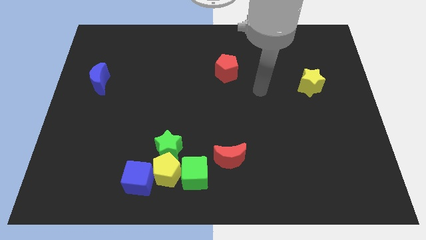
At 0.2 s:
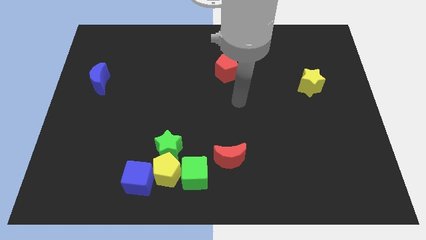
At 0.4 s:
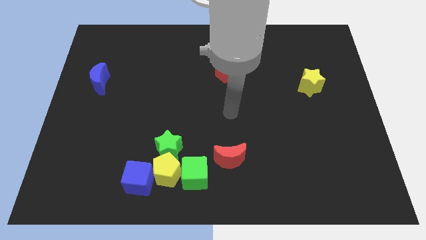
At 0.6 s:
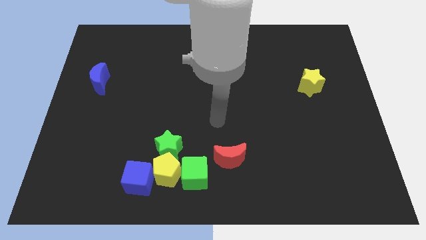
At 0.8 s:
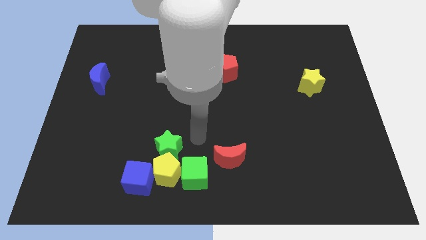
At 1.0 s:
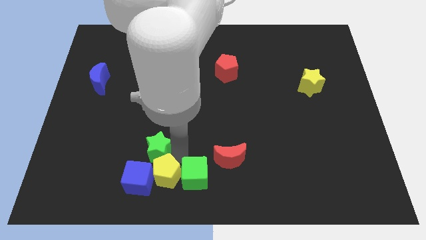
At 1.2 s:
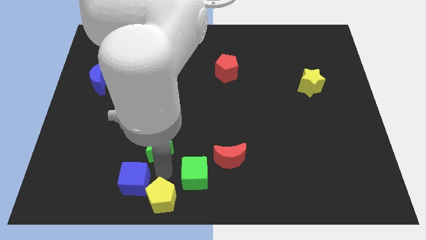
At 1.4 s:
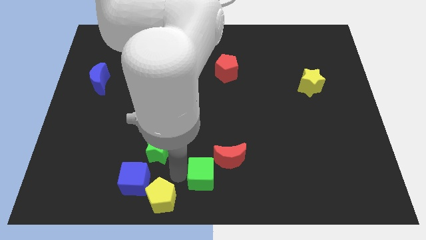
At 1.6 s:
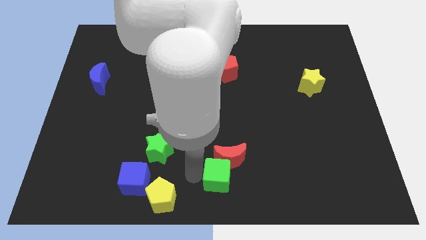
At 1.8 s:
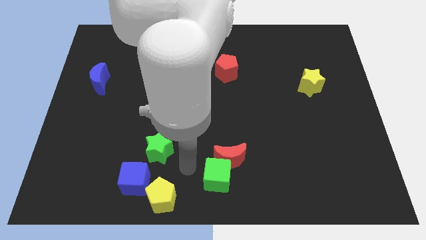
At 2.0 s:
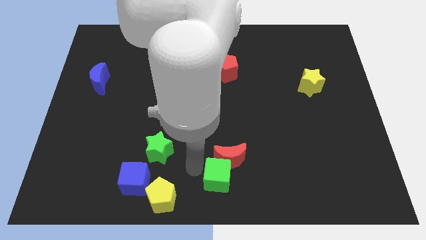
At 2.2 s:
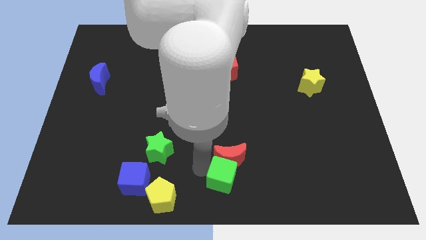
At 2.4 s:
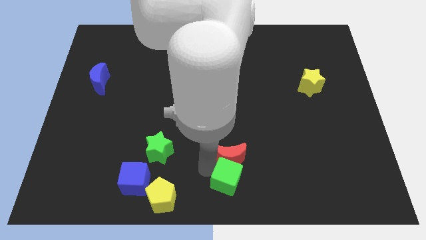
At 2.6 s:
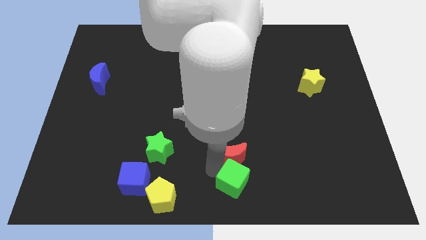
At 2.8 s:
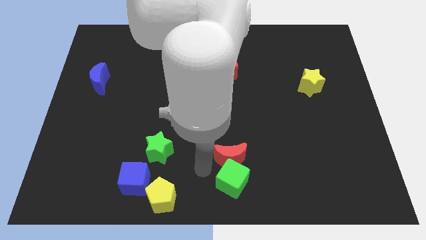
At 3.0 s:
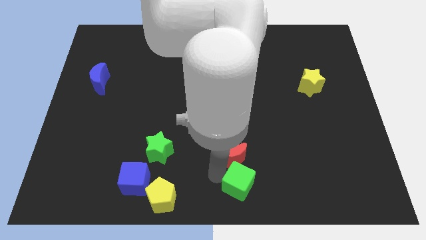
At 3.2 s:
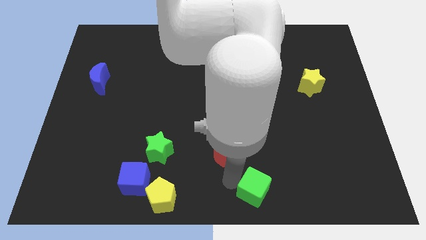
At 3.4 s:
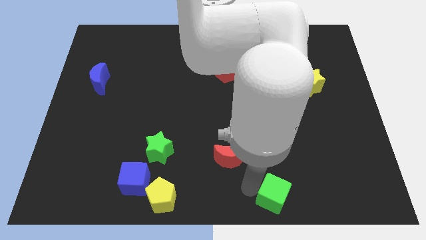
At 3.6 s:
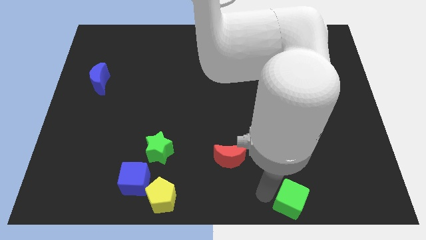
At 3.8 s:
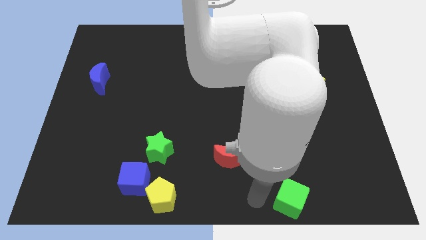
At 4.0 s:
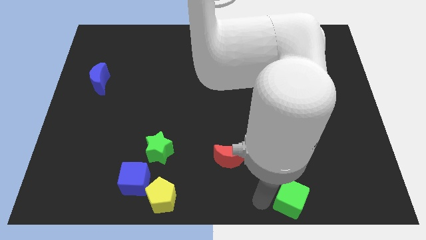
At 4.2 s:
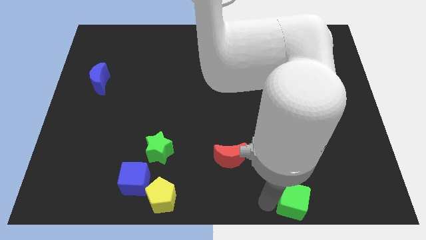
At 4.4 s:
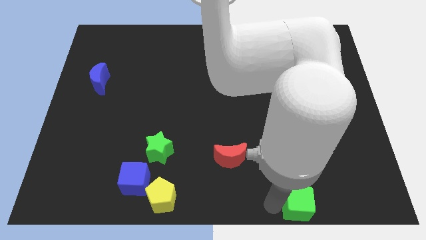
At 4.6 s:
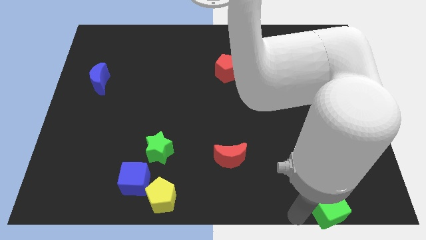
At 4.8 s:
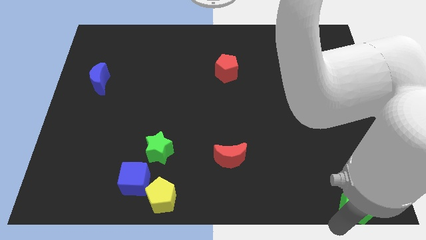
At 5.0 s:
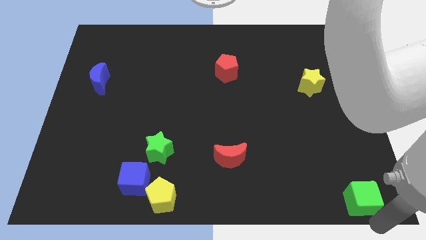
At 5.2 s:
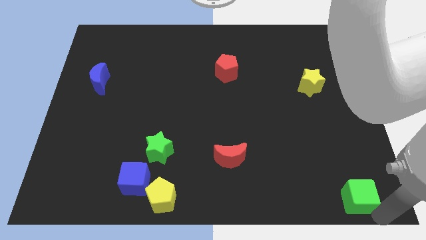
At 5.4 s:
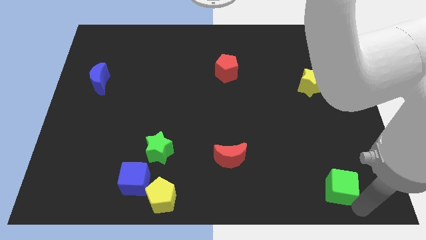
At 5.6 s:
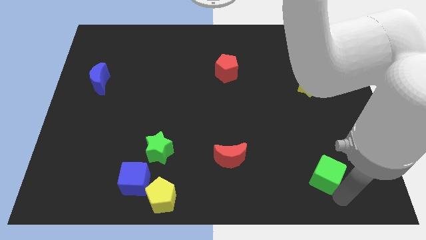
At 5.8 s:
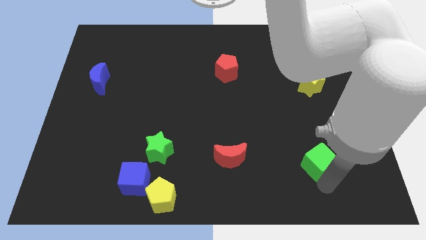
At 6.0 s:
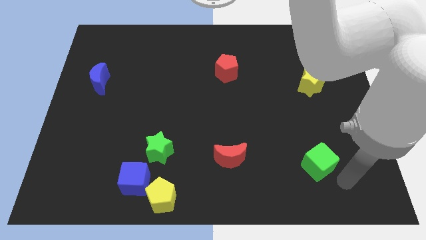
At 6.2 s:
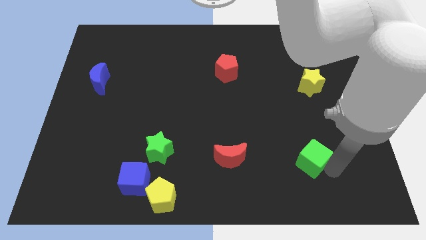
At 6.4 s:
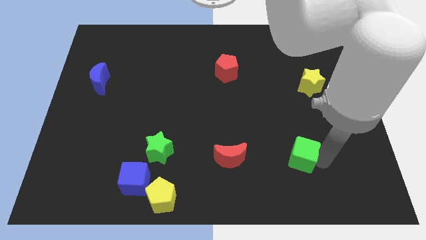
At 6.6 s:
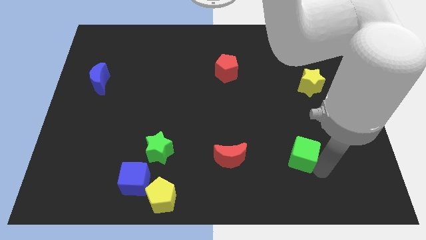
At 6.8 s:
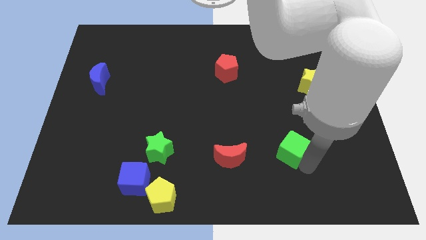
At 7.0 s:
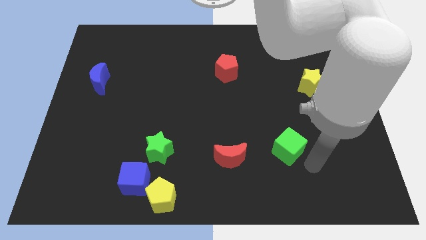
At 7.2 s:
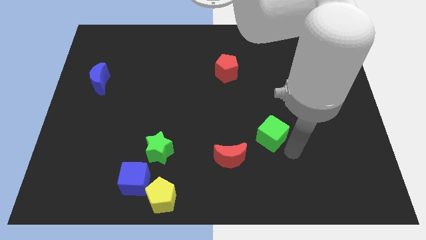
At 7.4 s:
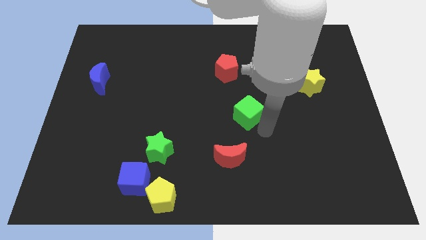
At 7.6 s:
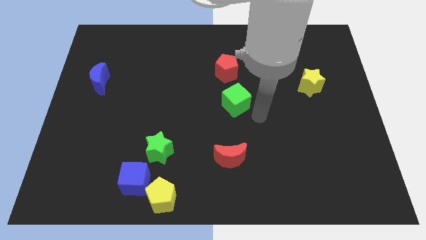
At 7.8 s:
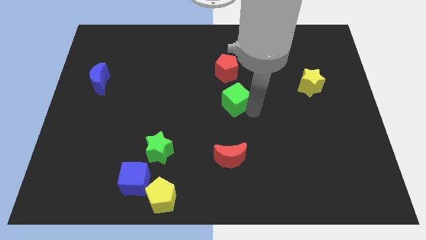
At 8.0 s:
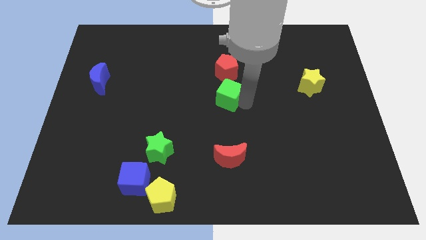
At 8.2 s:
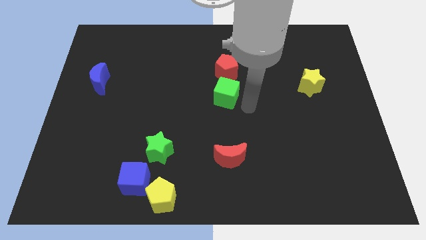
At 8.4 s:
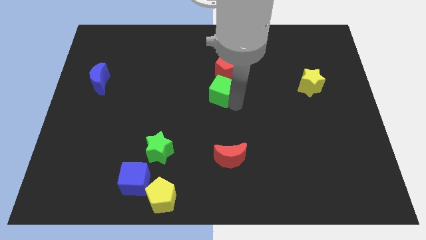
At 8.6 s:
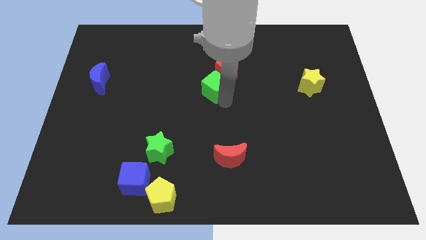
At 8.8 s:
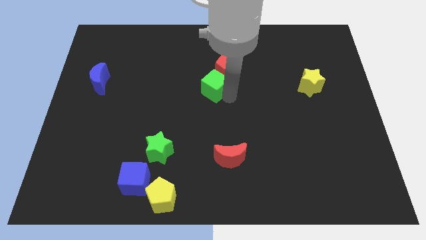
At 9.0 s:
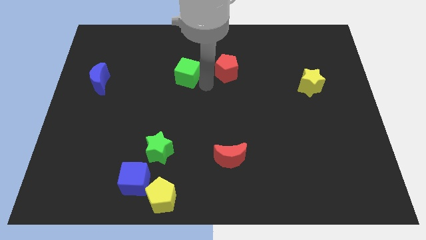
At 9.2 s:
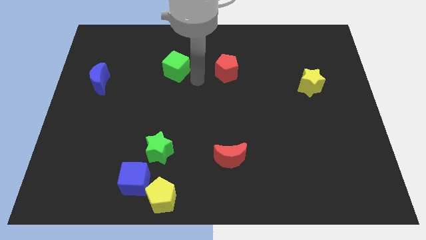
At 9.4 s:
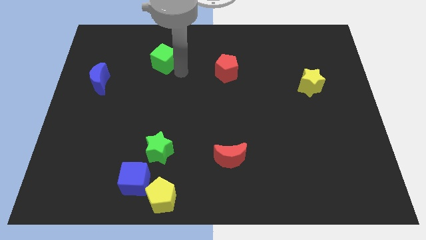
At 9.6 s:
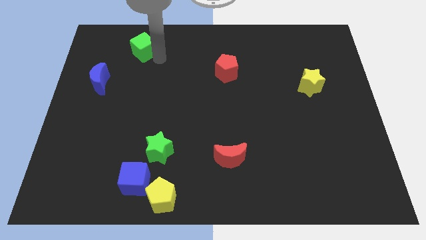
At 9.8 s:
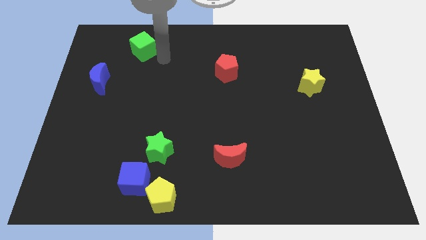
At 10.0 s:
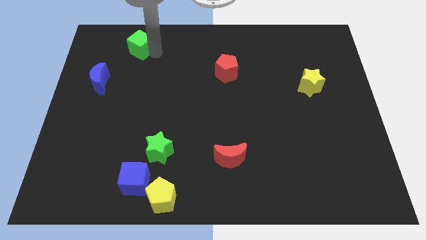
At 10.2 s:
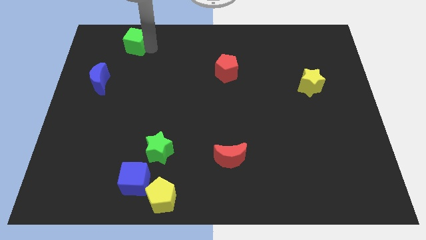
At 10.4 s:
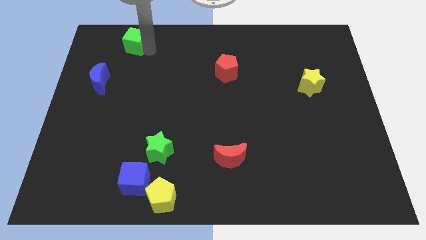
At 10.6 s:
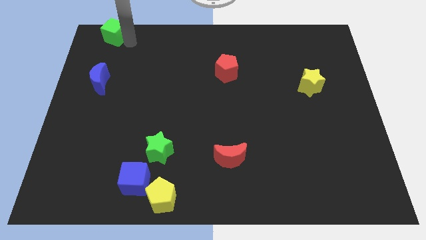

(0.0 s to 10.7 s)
push the green cube to the top left of the board

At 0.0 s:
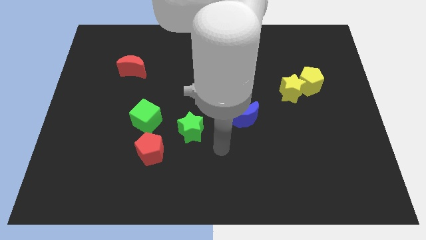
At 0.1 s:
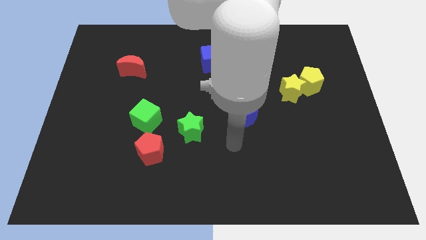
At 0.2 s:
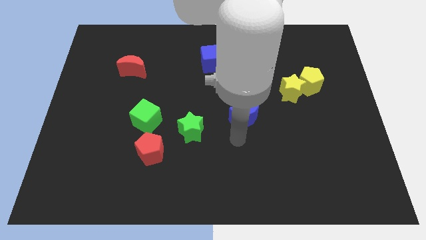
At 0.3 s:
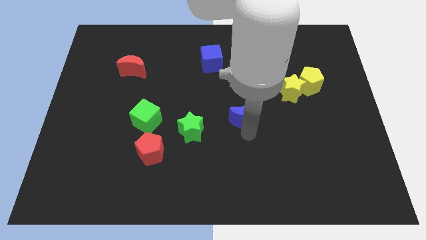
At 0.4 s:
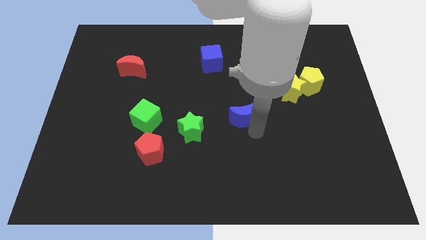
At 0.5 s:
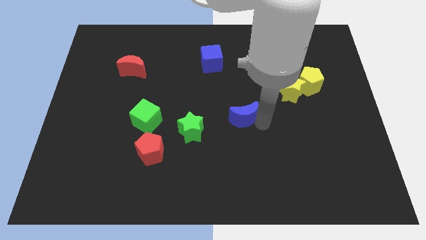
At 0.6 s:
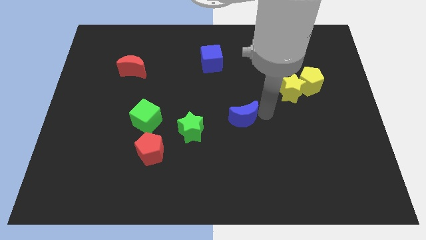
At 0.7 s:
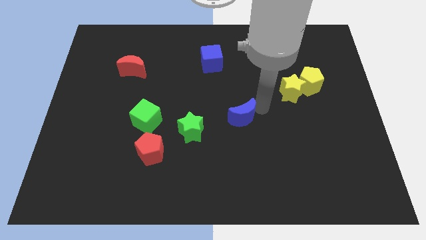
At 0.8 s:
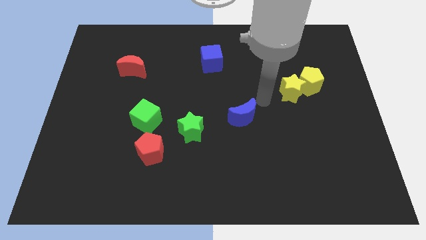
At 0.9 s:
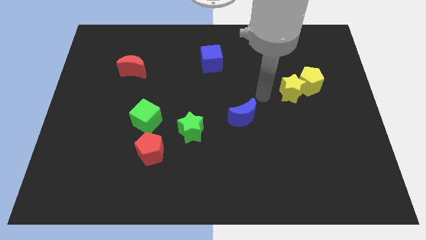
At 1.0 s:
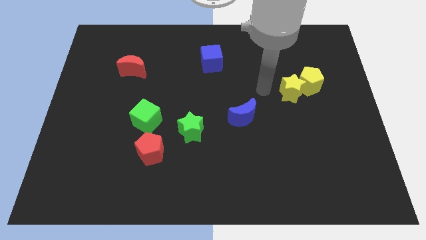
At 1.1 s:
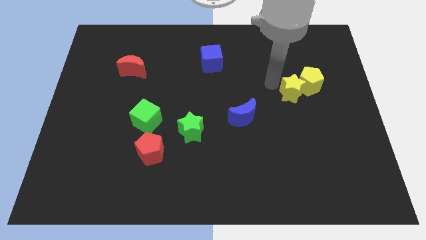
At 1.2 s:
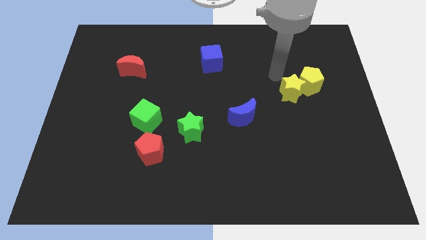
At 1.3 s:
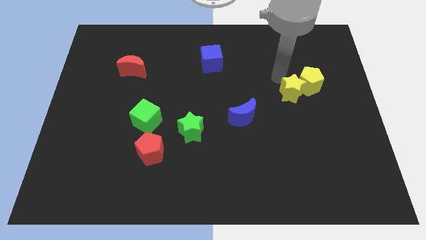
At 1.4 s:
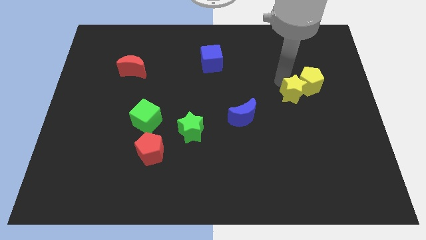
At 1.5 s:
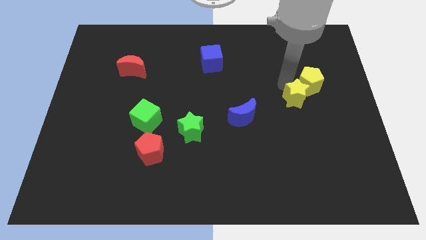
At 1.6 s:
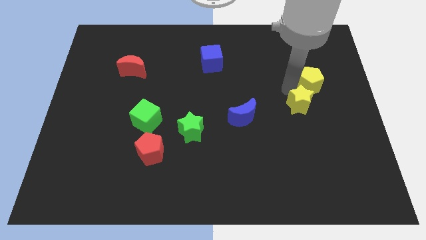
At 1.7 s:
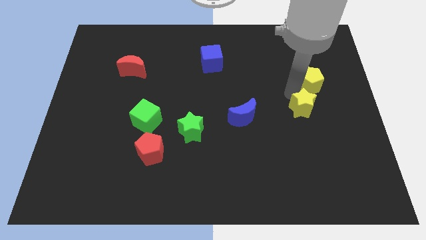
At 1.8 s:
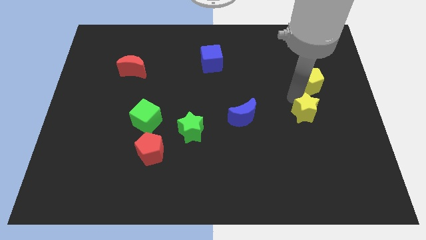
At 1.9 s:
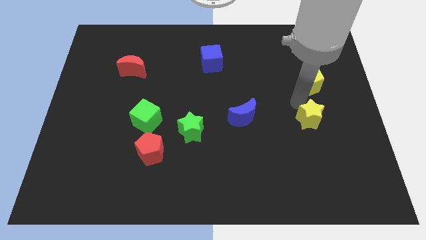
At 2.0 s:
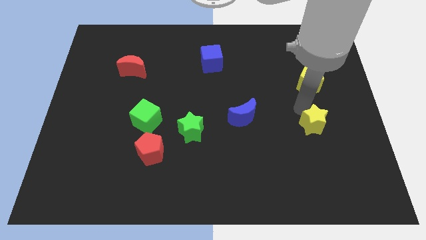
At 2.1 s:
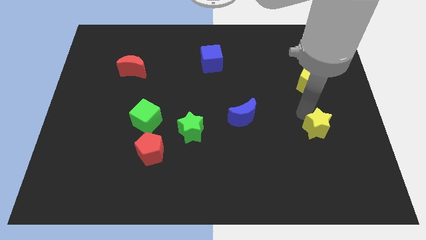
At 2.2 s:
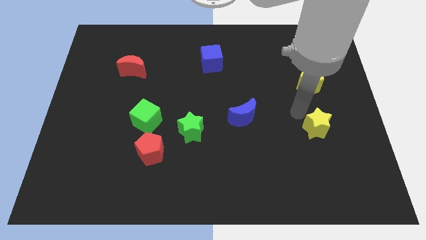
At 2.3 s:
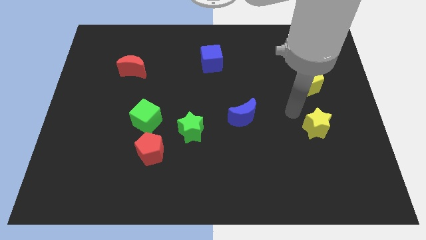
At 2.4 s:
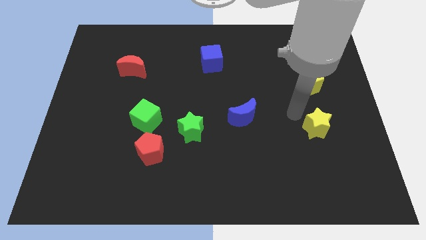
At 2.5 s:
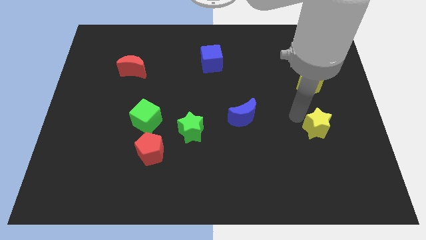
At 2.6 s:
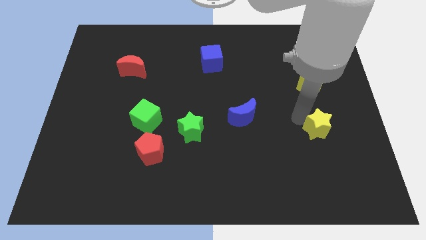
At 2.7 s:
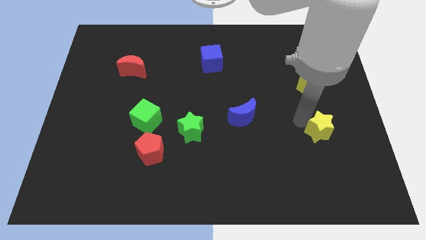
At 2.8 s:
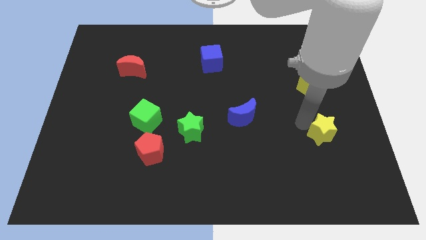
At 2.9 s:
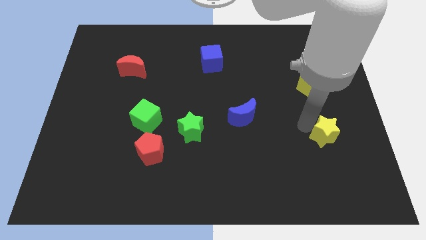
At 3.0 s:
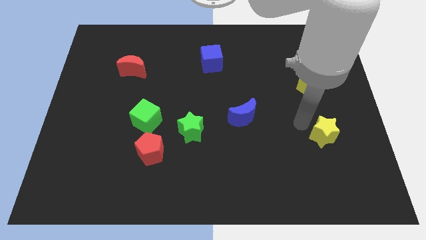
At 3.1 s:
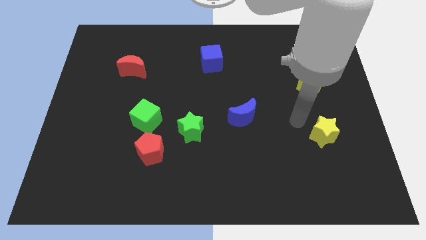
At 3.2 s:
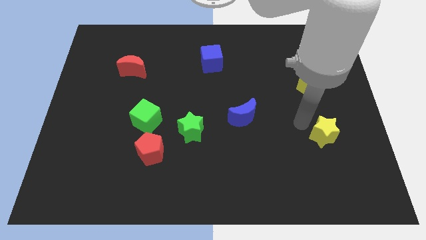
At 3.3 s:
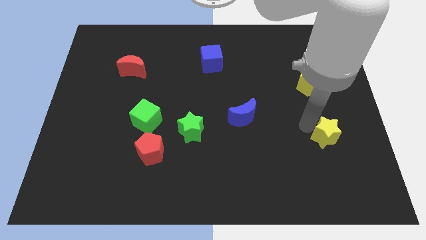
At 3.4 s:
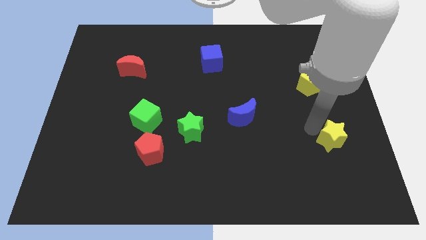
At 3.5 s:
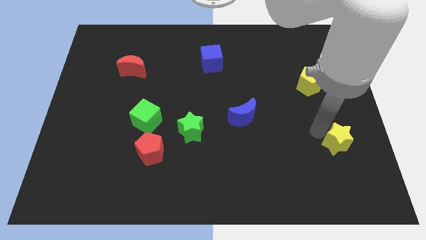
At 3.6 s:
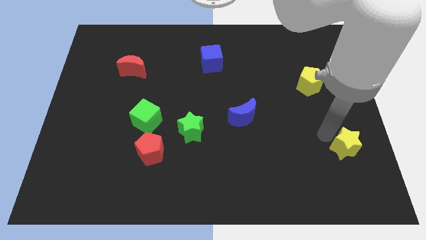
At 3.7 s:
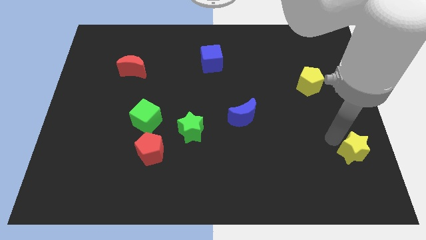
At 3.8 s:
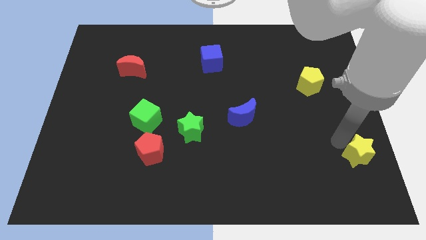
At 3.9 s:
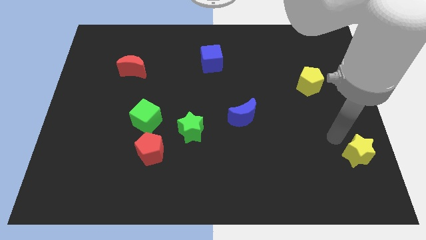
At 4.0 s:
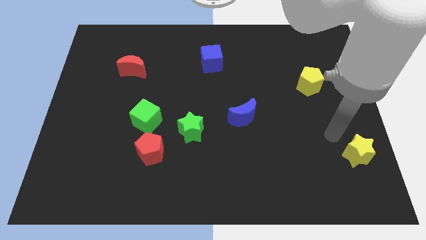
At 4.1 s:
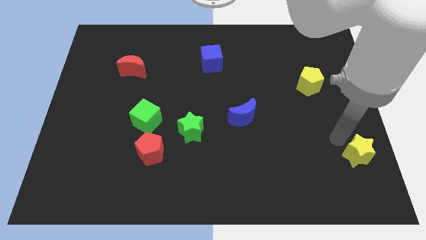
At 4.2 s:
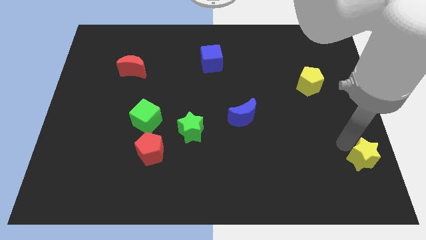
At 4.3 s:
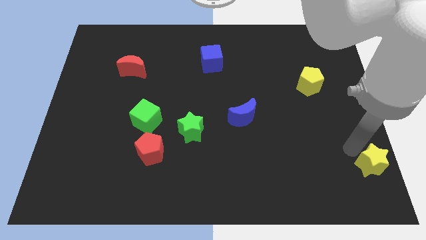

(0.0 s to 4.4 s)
put the yellow star to the bottom right
